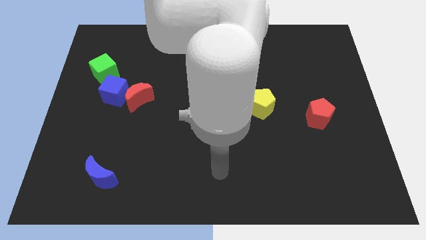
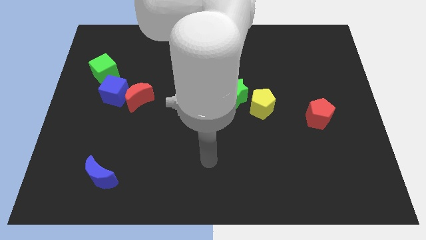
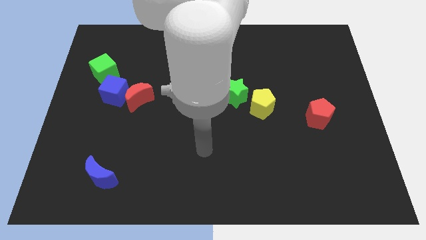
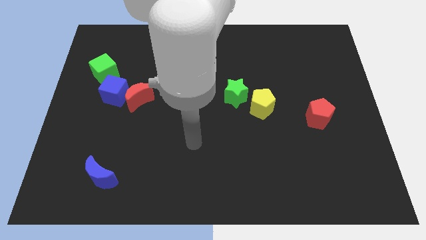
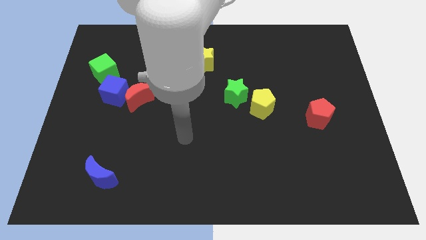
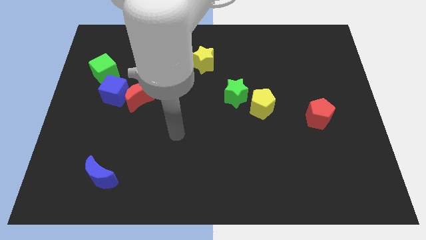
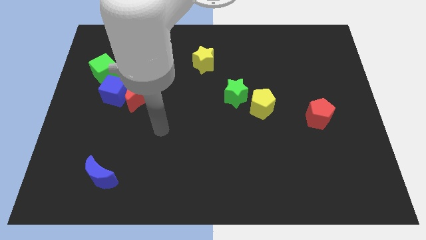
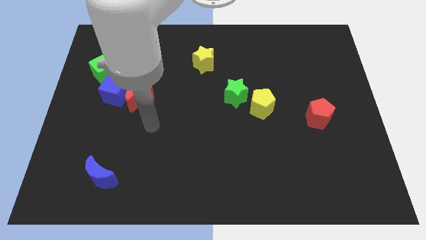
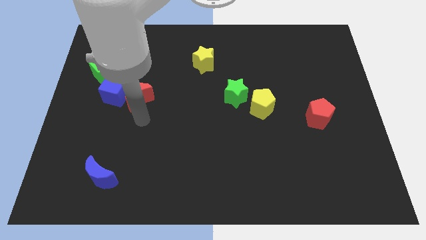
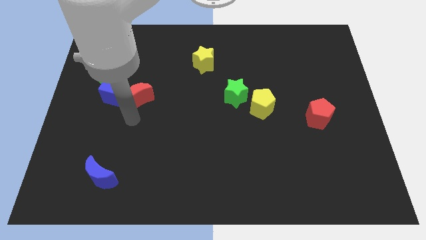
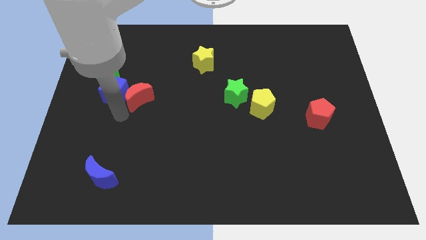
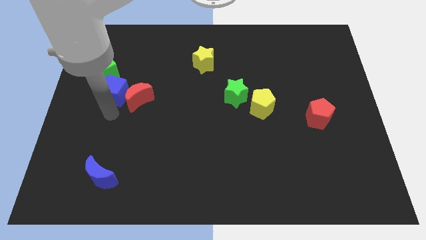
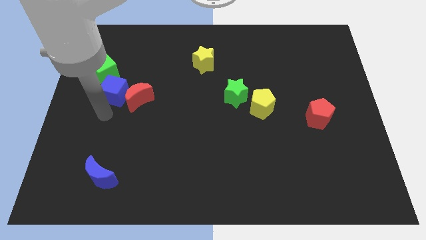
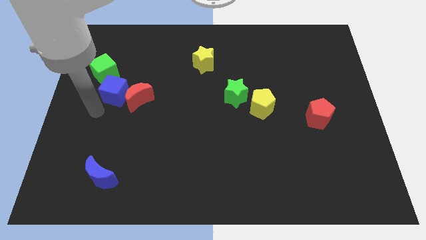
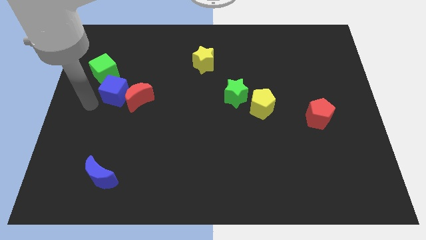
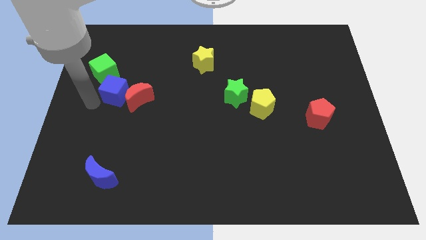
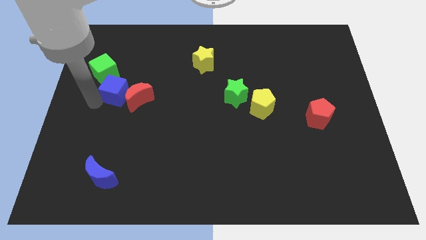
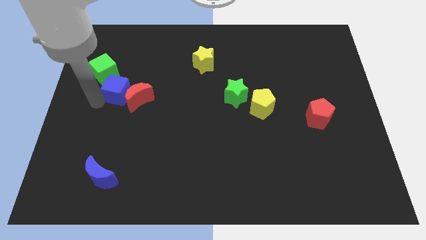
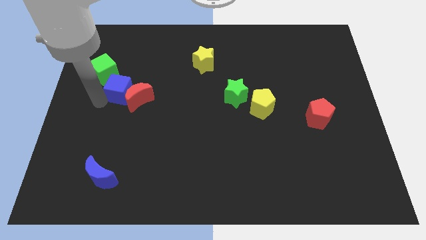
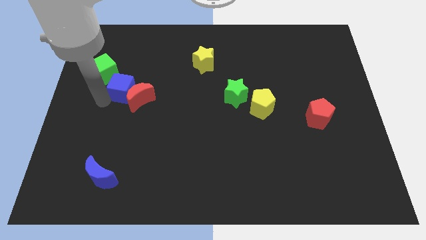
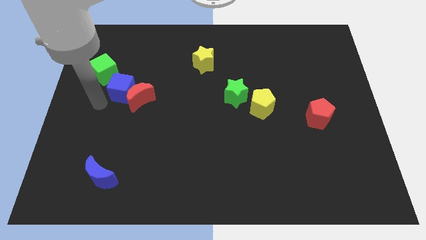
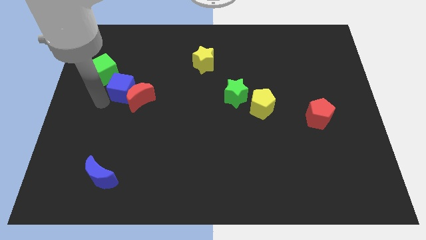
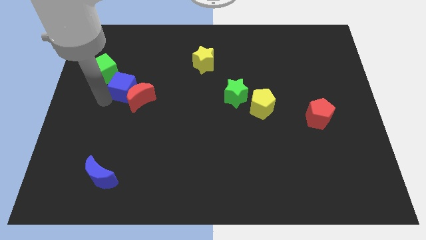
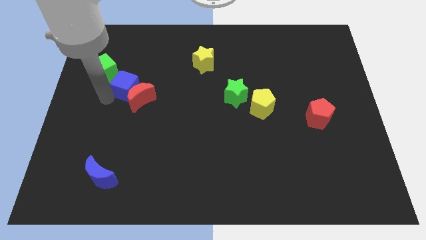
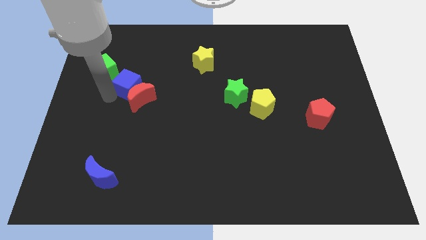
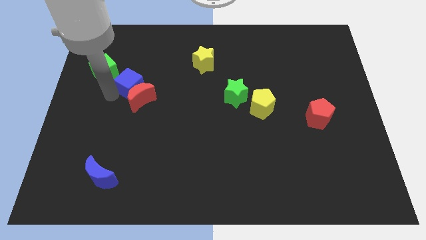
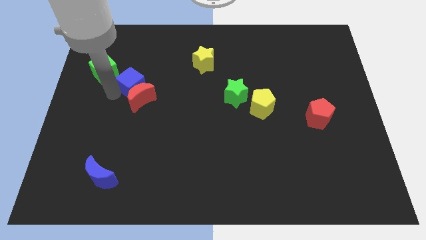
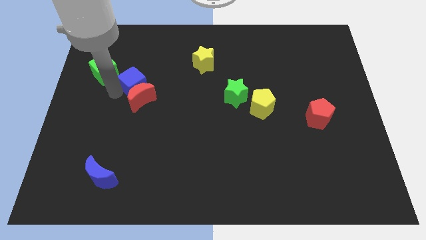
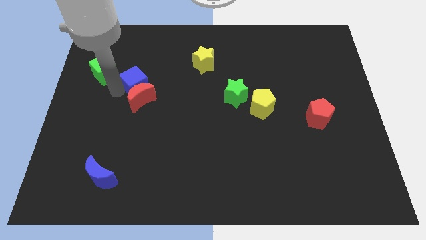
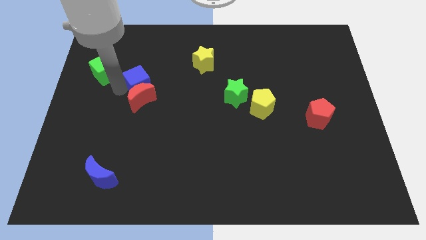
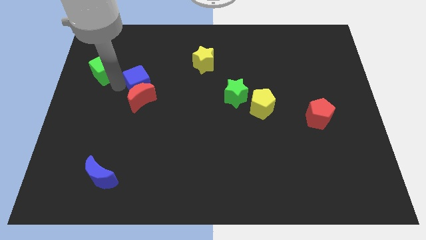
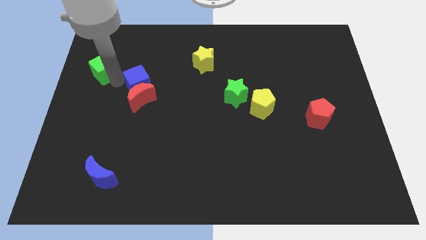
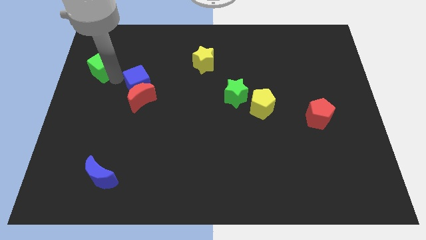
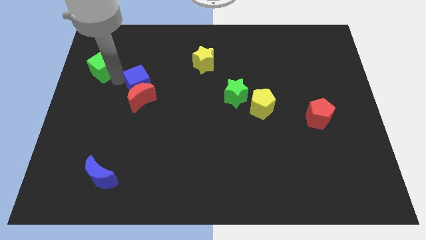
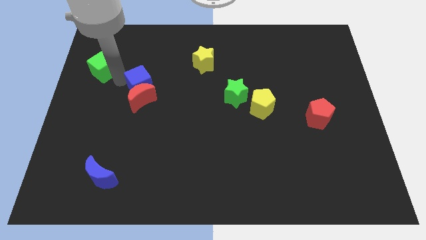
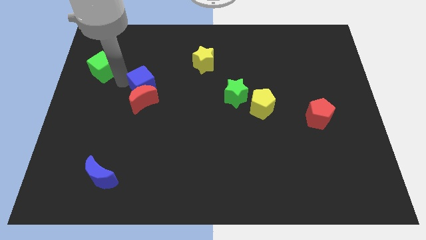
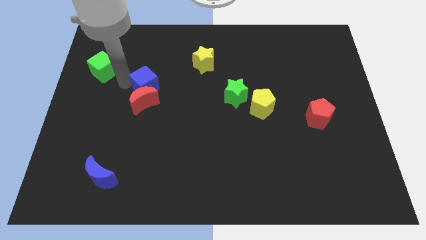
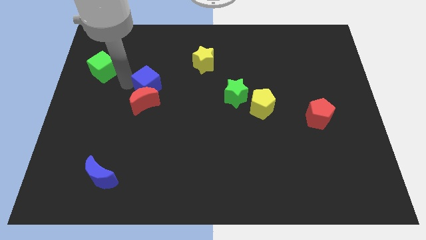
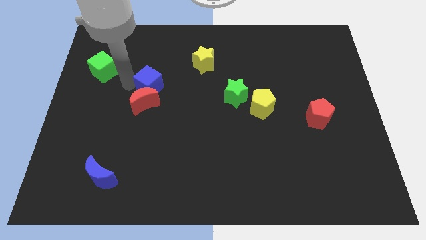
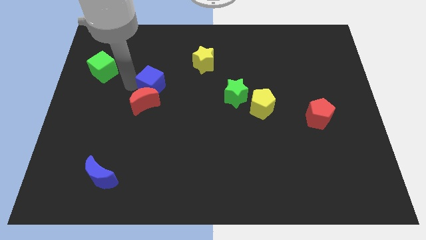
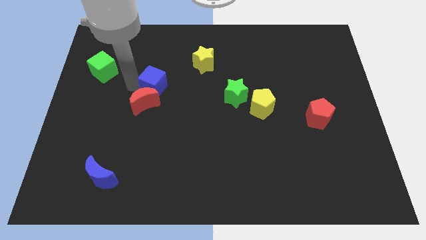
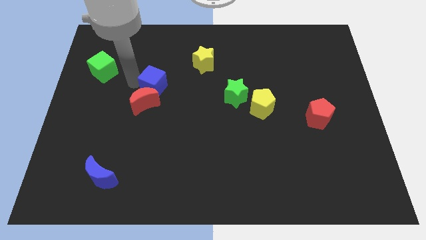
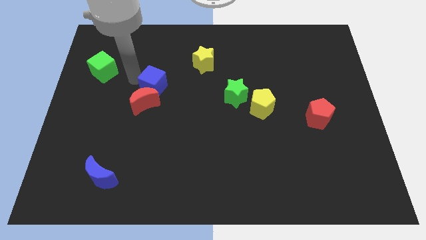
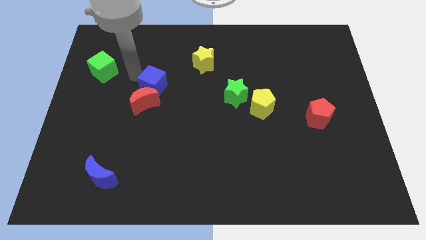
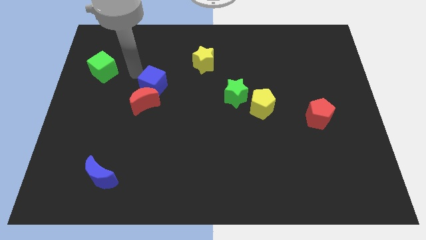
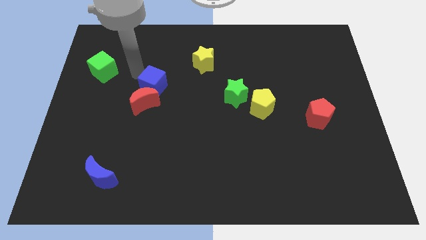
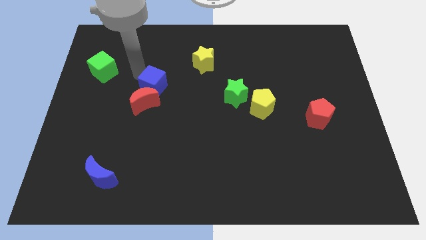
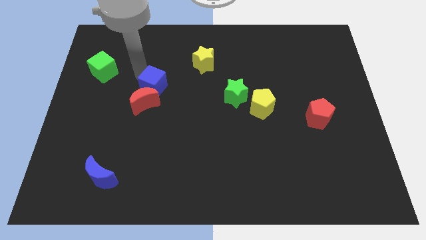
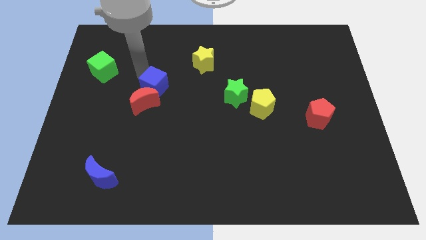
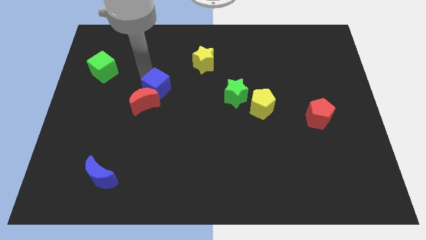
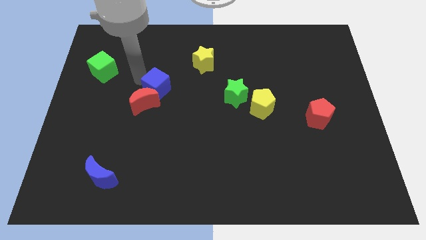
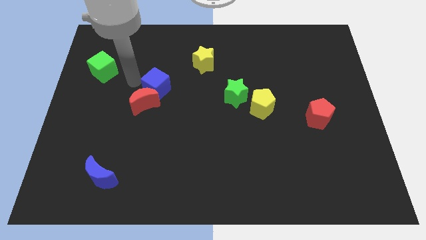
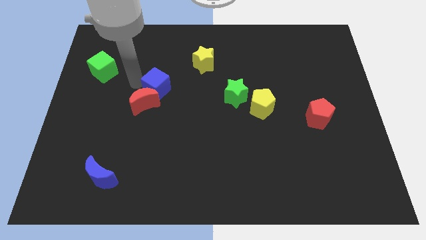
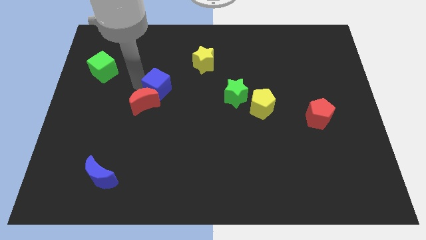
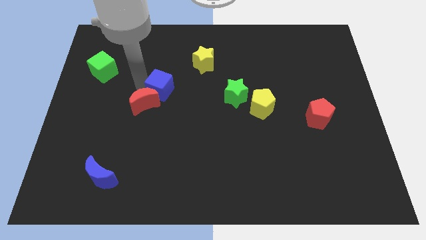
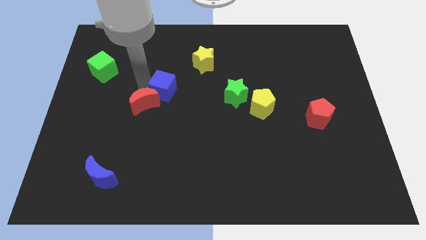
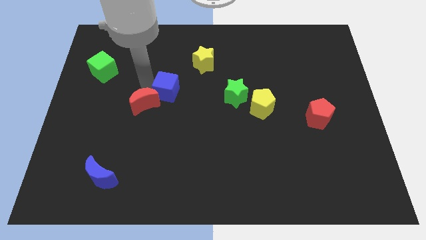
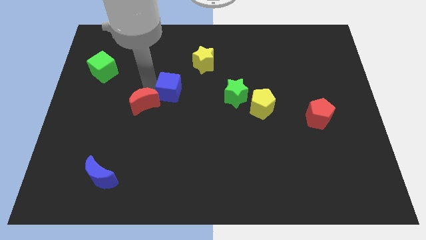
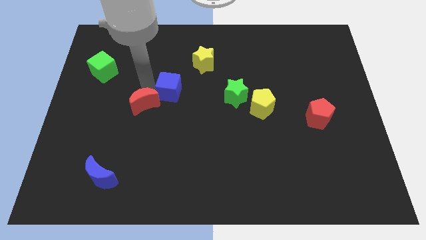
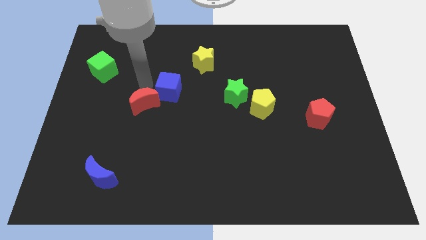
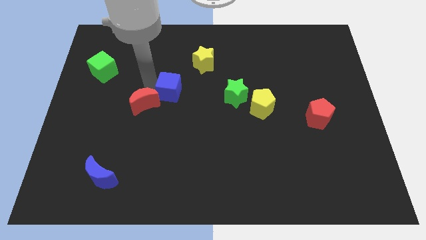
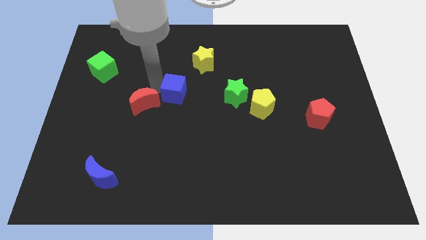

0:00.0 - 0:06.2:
slide the blue cube just left of the green star
